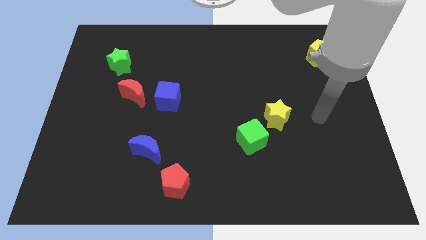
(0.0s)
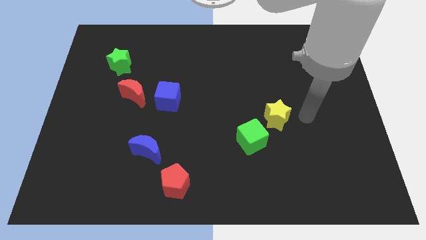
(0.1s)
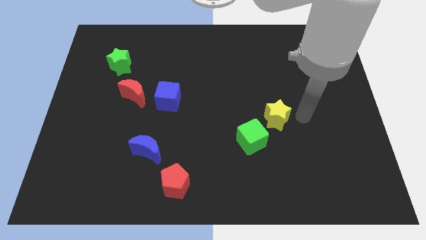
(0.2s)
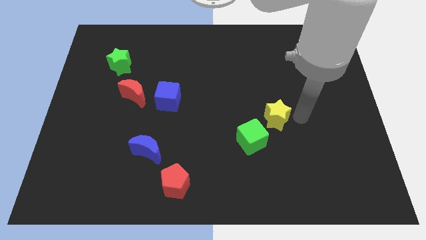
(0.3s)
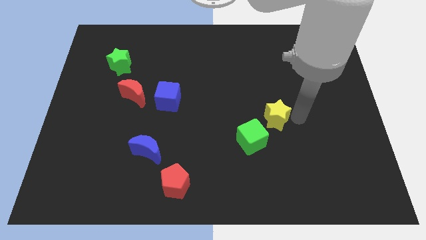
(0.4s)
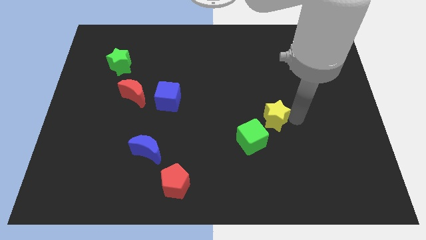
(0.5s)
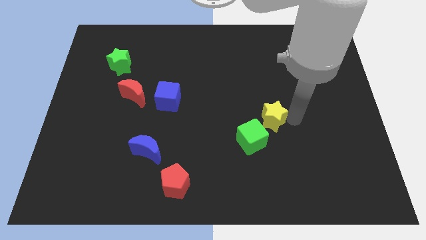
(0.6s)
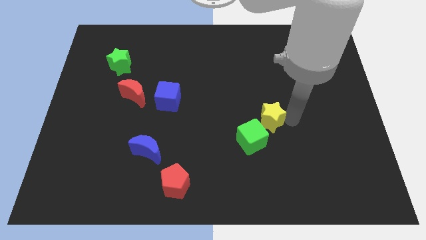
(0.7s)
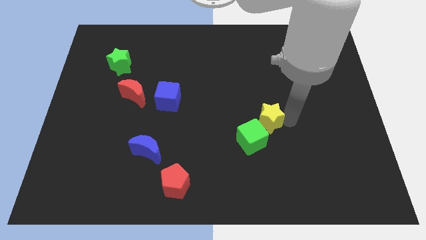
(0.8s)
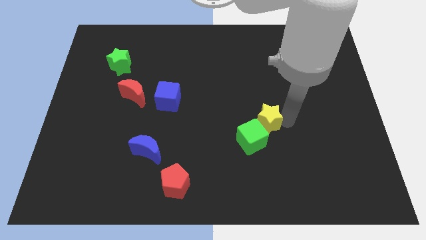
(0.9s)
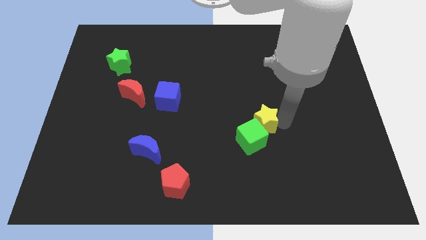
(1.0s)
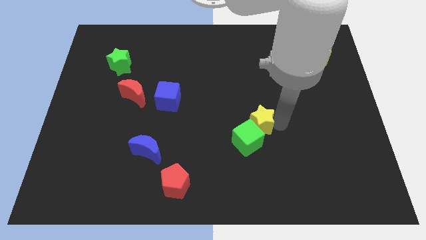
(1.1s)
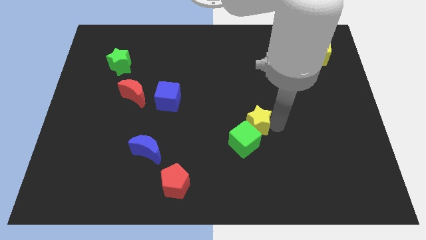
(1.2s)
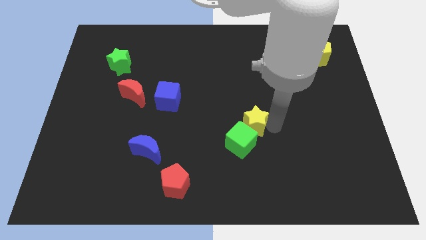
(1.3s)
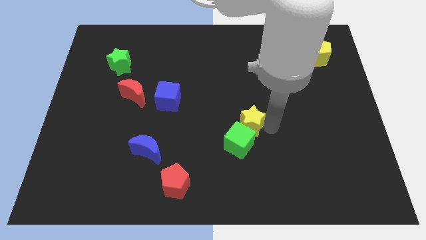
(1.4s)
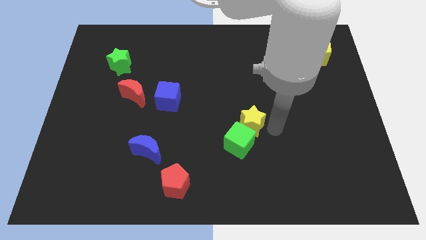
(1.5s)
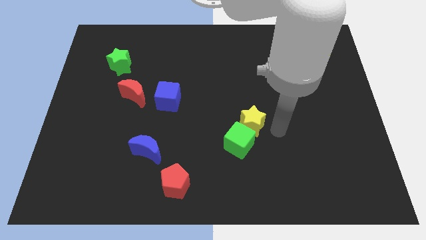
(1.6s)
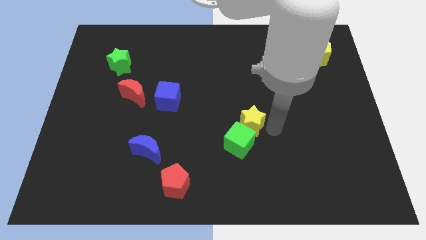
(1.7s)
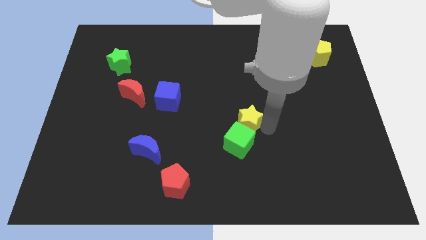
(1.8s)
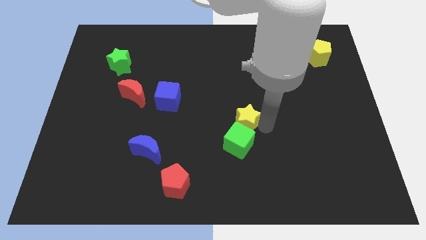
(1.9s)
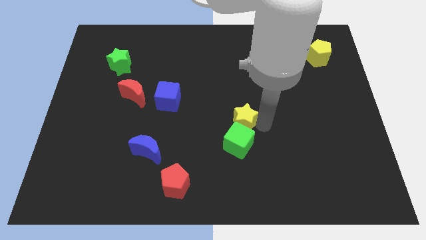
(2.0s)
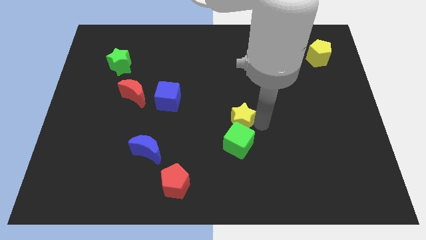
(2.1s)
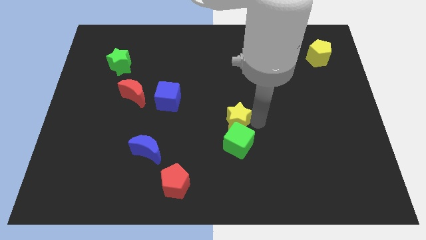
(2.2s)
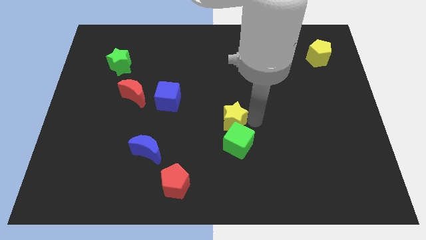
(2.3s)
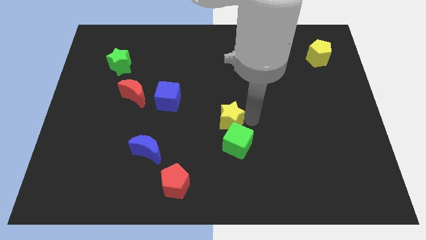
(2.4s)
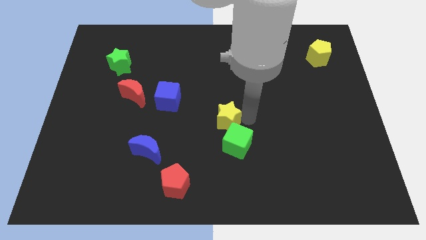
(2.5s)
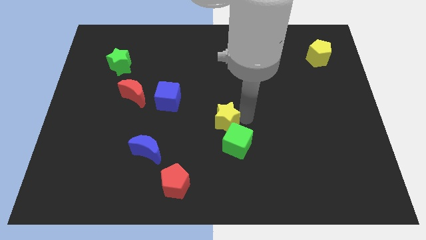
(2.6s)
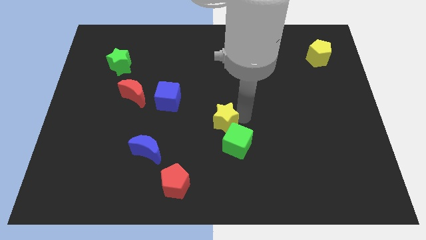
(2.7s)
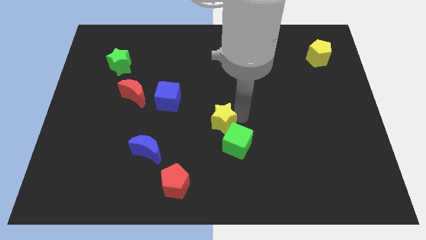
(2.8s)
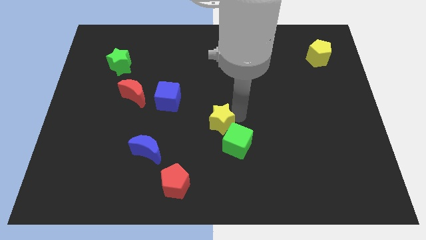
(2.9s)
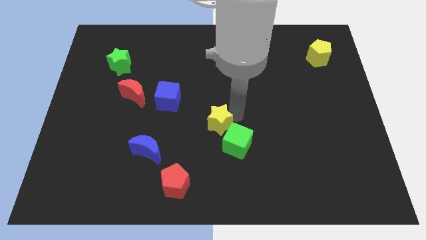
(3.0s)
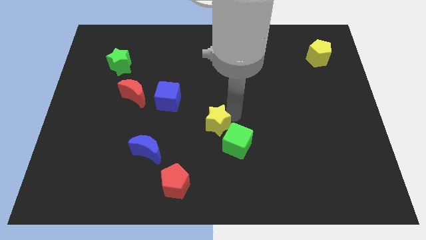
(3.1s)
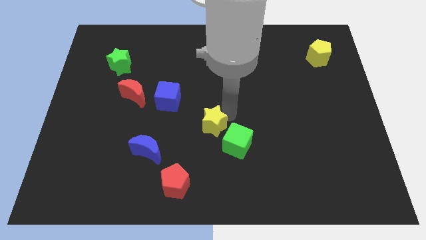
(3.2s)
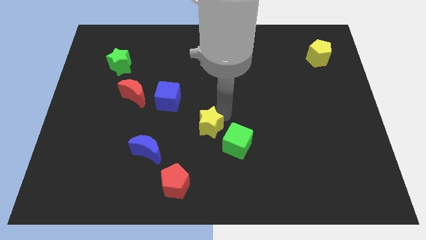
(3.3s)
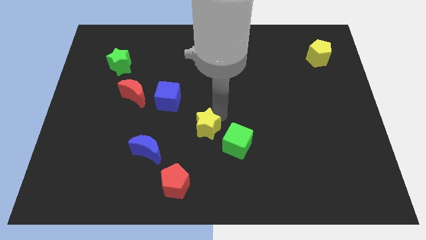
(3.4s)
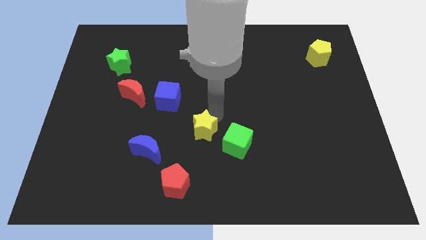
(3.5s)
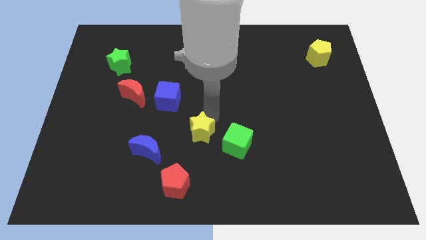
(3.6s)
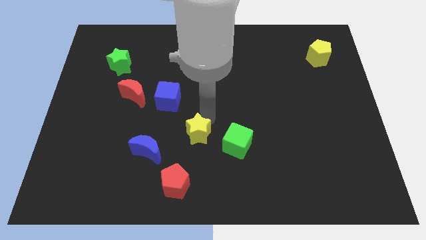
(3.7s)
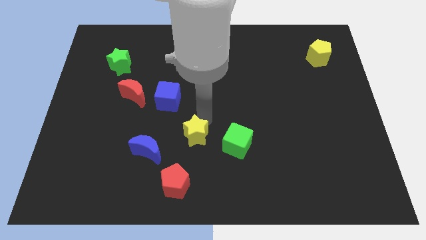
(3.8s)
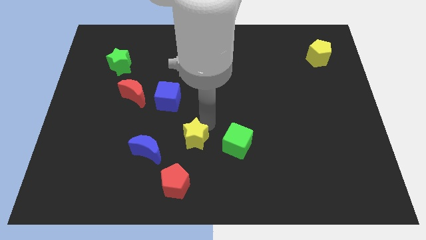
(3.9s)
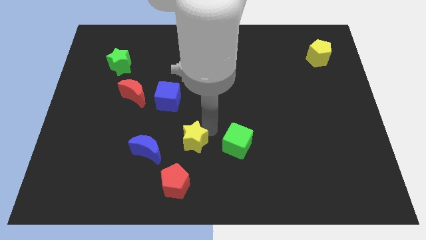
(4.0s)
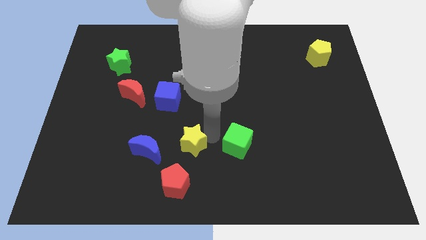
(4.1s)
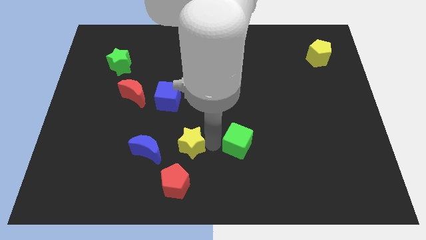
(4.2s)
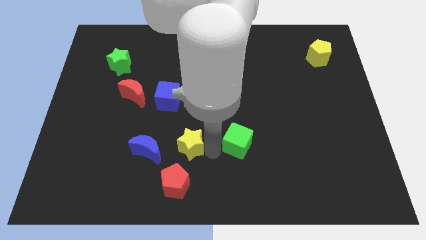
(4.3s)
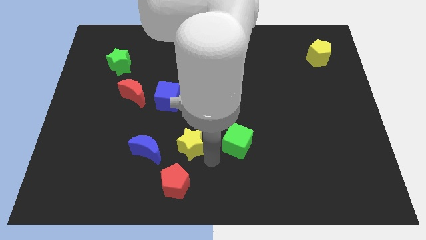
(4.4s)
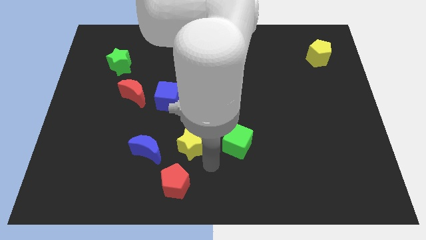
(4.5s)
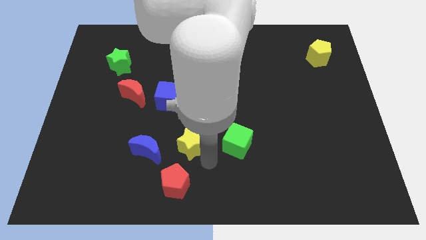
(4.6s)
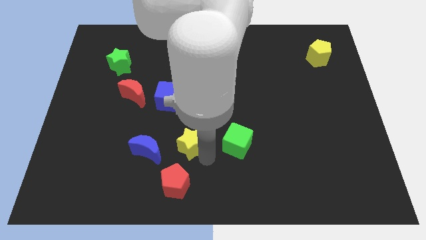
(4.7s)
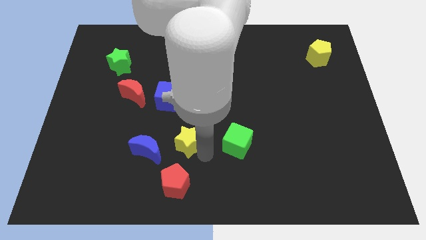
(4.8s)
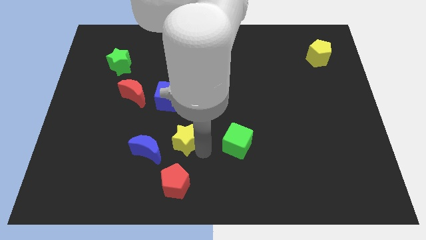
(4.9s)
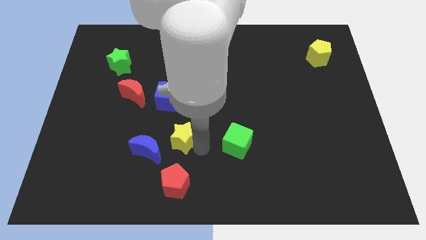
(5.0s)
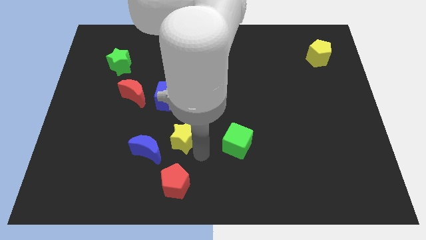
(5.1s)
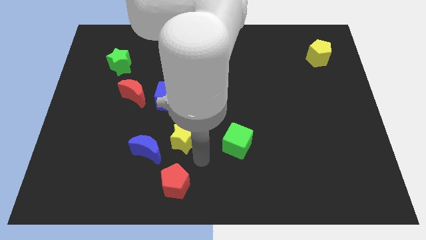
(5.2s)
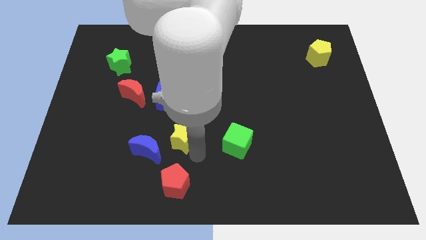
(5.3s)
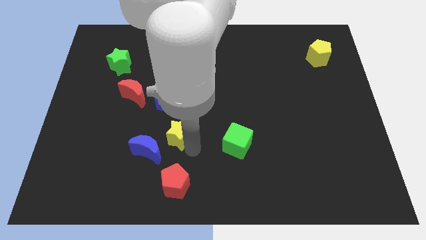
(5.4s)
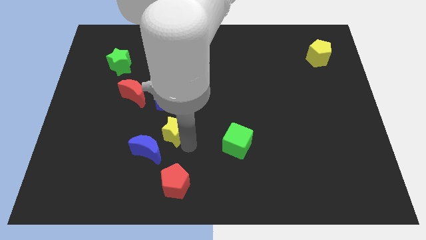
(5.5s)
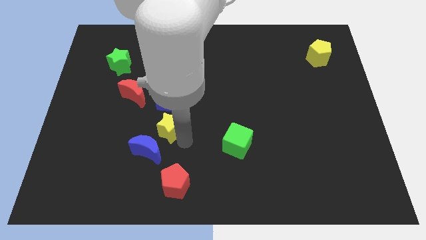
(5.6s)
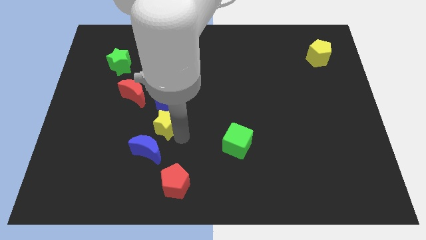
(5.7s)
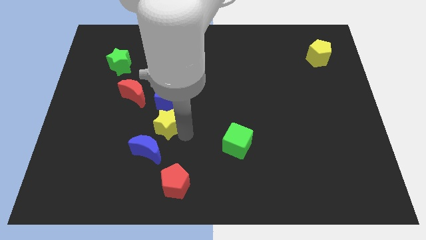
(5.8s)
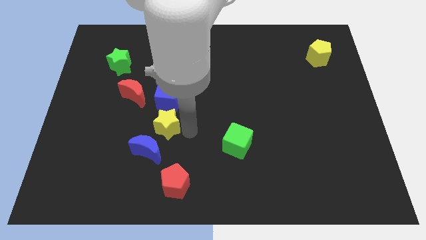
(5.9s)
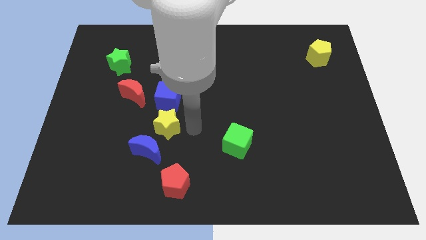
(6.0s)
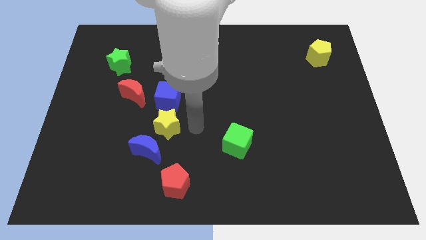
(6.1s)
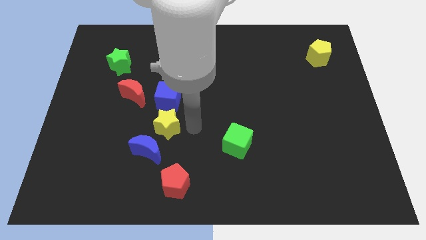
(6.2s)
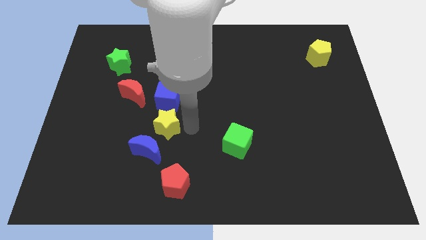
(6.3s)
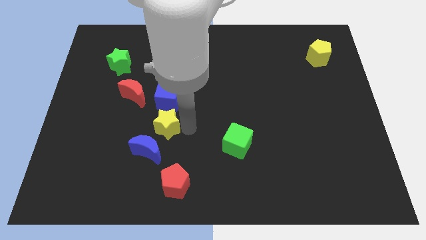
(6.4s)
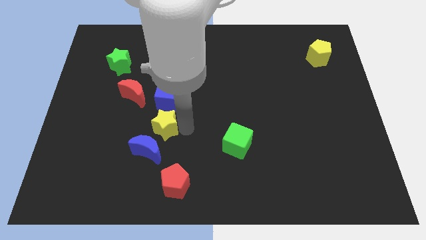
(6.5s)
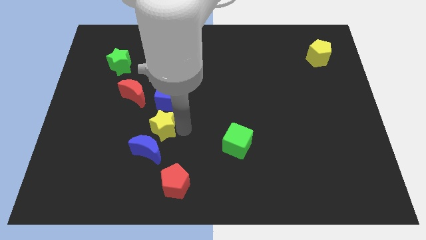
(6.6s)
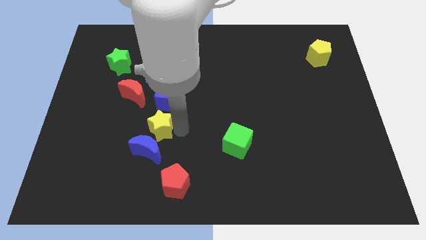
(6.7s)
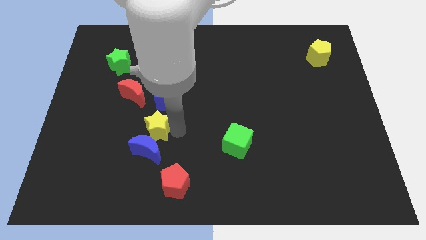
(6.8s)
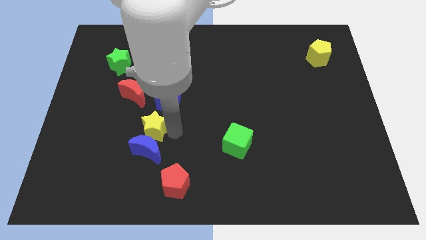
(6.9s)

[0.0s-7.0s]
push the yellow star to the top left of the blue moon

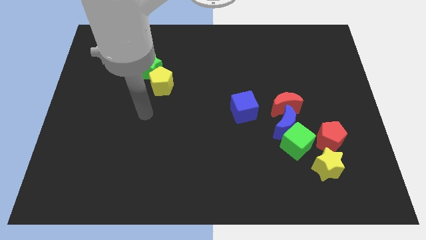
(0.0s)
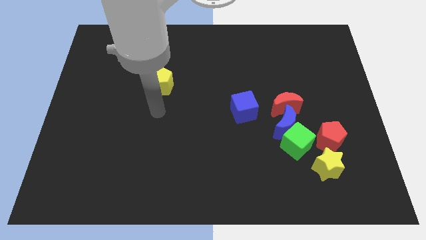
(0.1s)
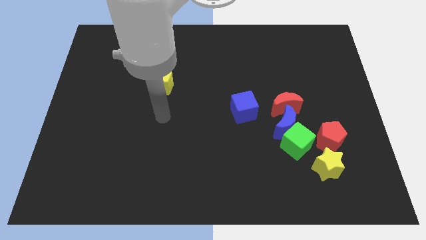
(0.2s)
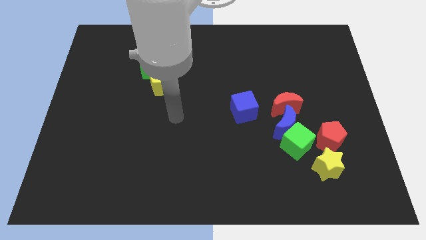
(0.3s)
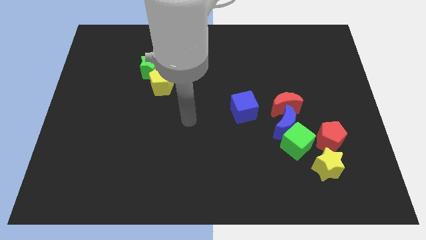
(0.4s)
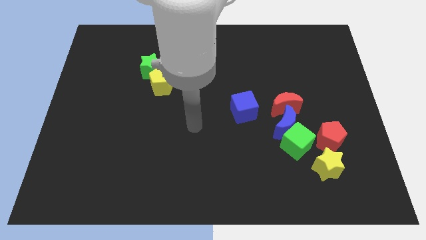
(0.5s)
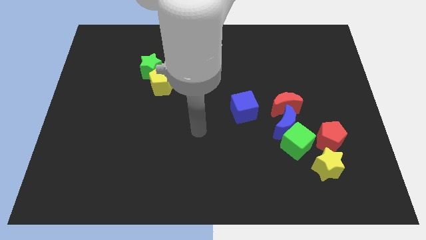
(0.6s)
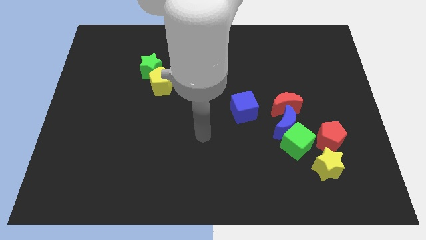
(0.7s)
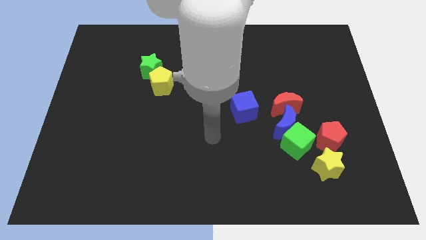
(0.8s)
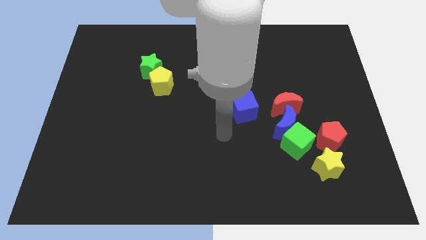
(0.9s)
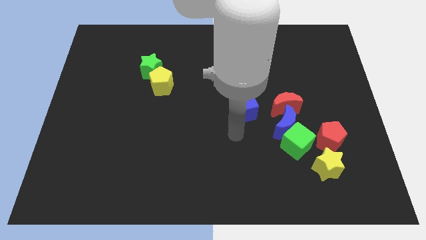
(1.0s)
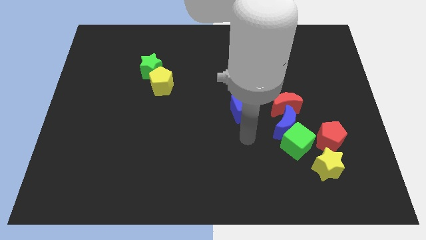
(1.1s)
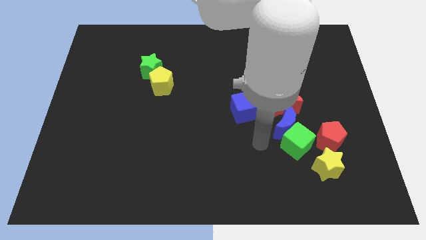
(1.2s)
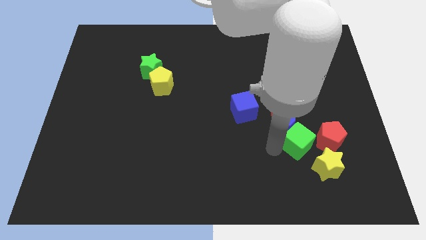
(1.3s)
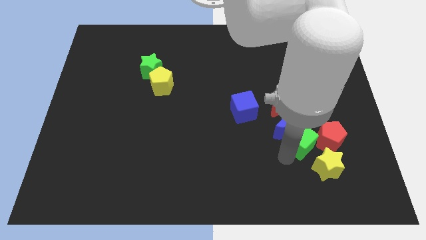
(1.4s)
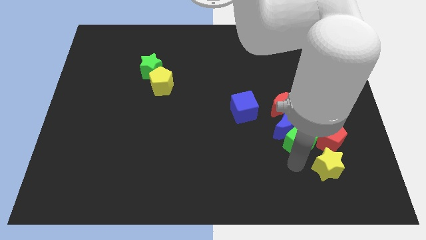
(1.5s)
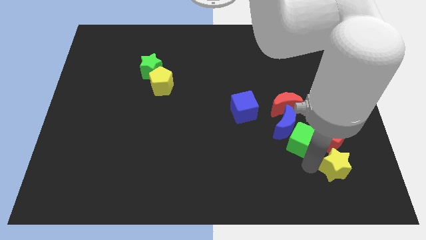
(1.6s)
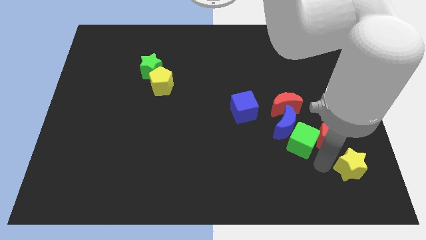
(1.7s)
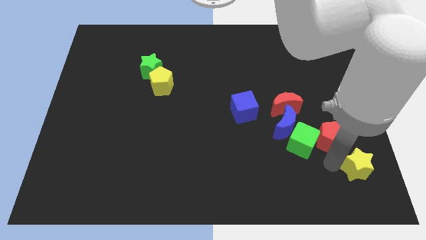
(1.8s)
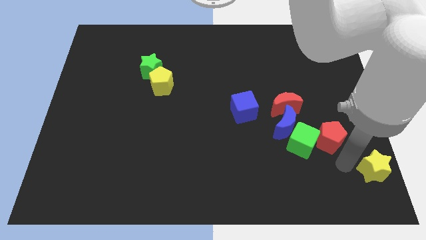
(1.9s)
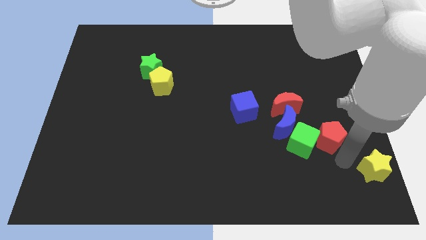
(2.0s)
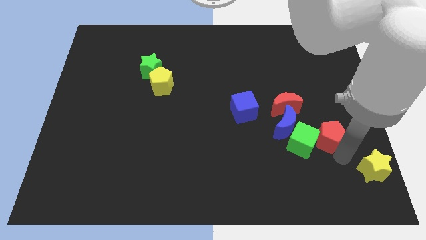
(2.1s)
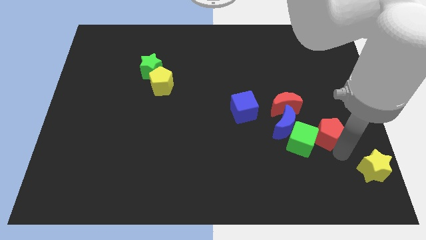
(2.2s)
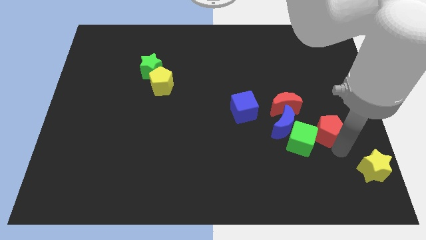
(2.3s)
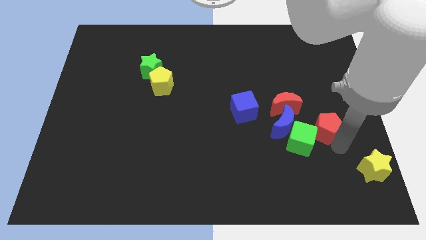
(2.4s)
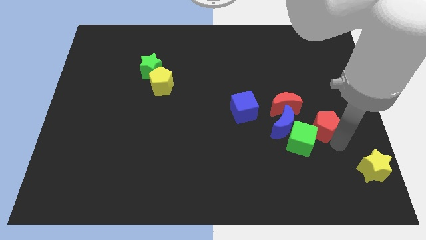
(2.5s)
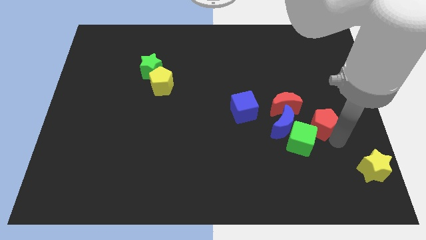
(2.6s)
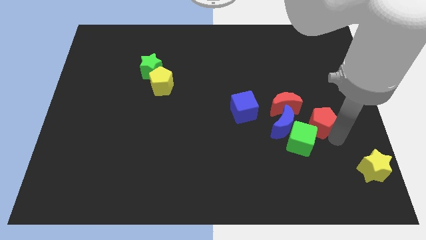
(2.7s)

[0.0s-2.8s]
put the red pentagon above the green cube
